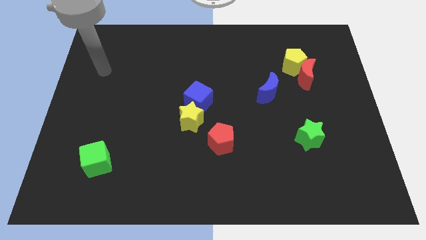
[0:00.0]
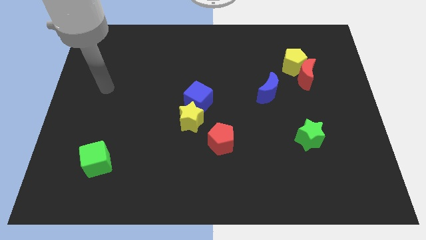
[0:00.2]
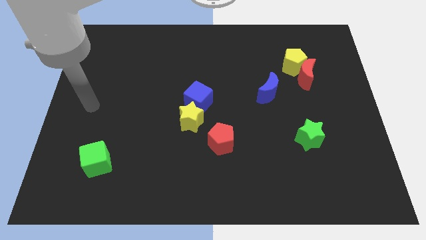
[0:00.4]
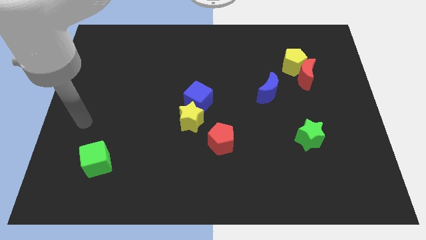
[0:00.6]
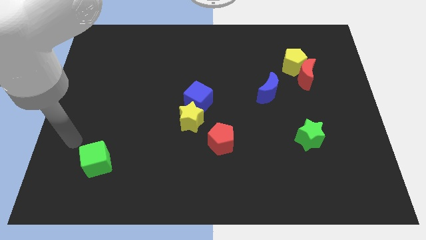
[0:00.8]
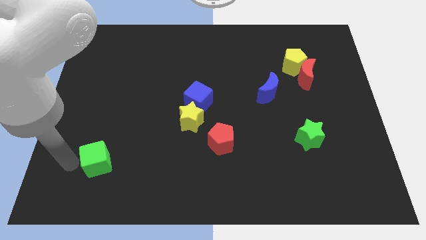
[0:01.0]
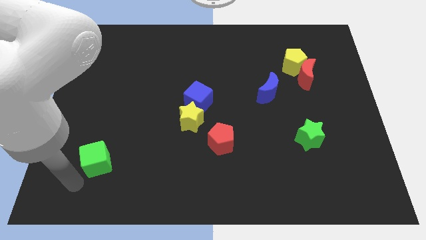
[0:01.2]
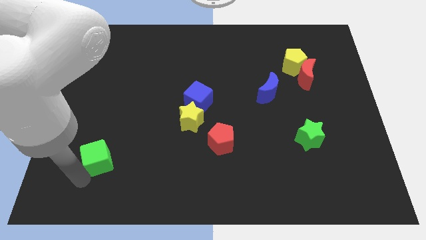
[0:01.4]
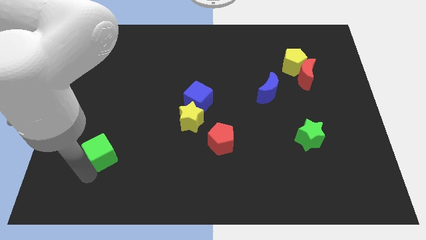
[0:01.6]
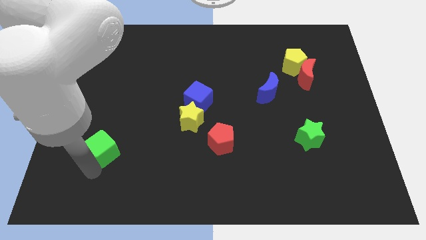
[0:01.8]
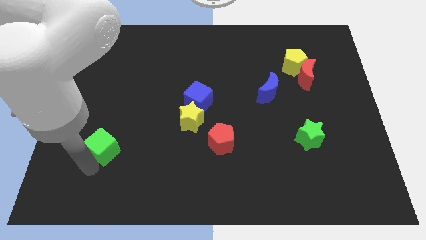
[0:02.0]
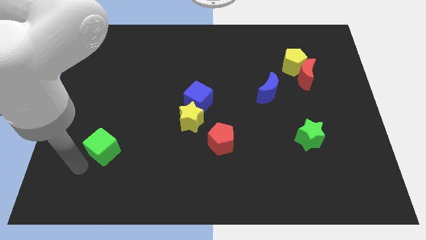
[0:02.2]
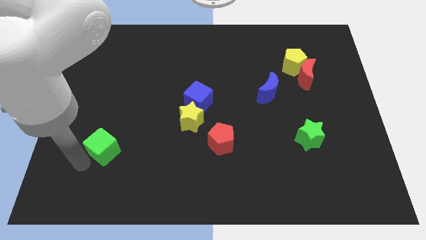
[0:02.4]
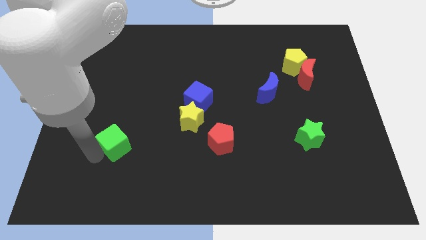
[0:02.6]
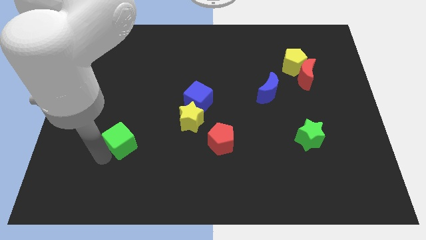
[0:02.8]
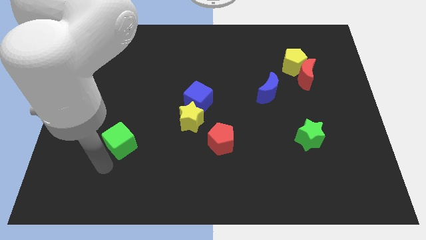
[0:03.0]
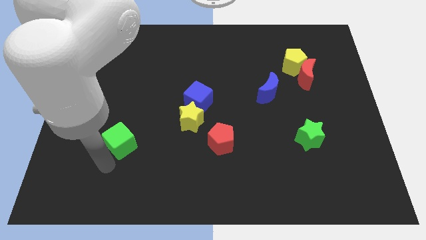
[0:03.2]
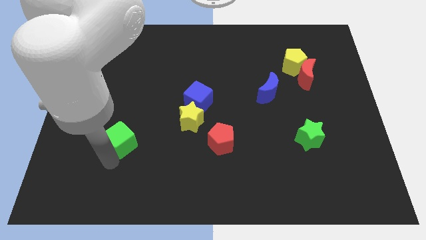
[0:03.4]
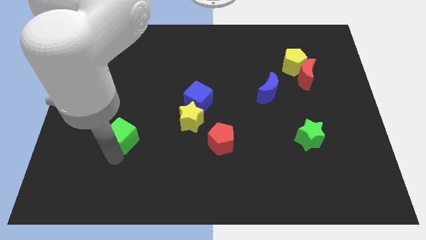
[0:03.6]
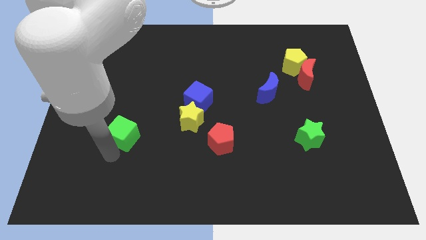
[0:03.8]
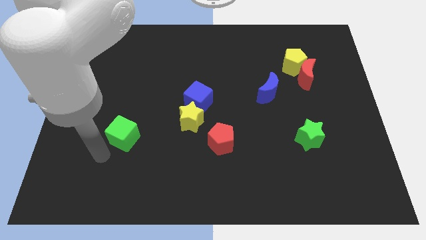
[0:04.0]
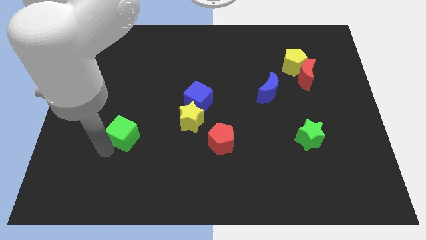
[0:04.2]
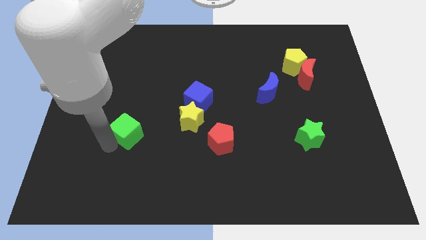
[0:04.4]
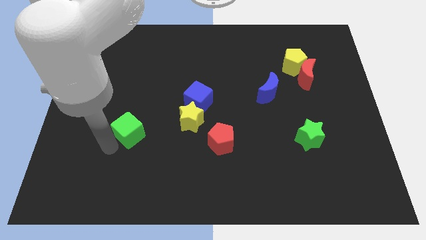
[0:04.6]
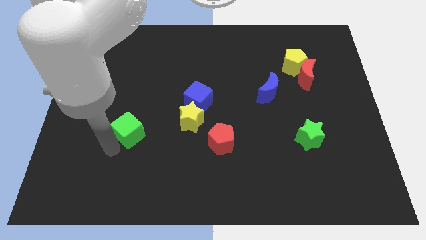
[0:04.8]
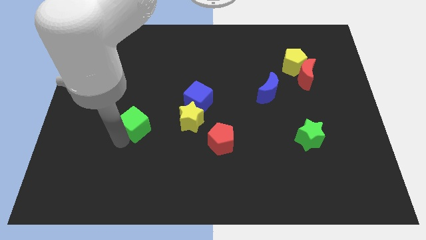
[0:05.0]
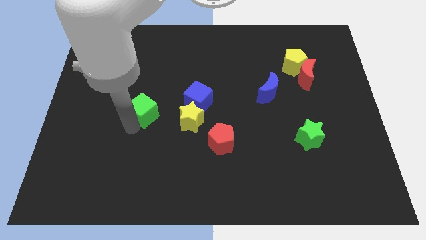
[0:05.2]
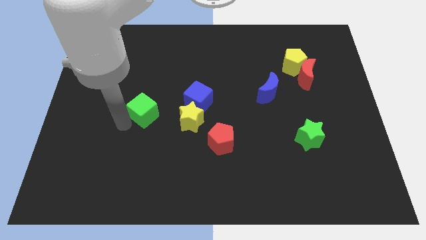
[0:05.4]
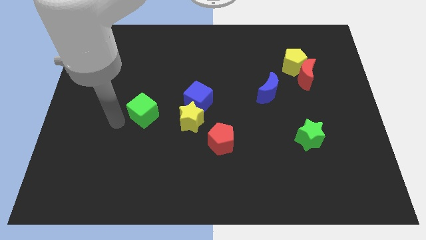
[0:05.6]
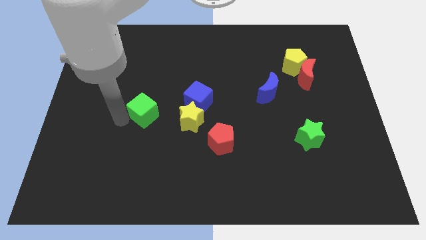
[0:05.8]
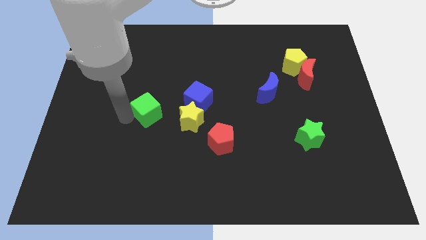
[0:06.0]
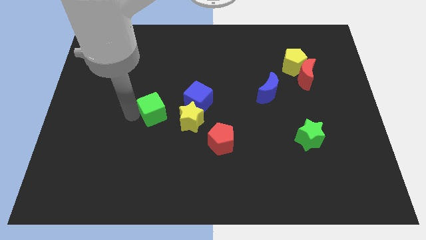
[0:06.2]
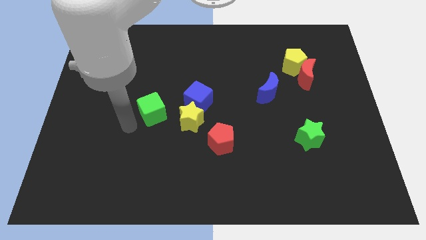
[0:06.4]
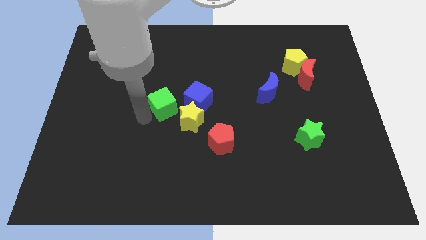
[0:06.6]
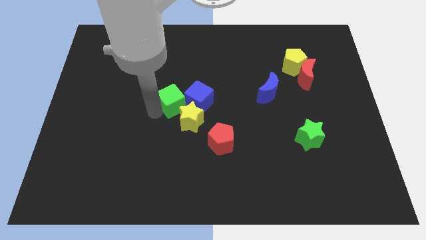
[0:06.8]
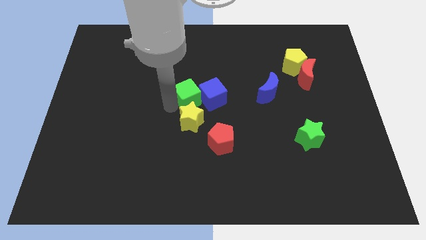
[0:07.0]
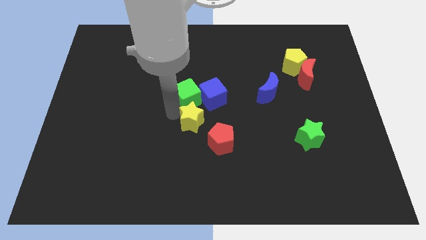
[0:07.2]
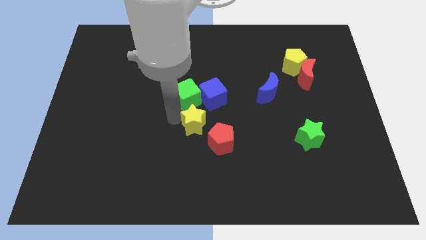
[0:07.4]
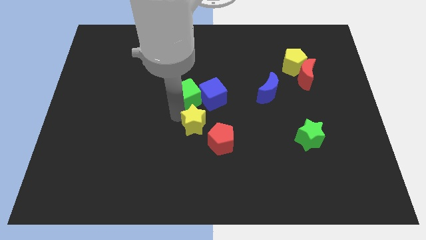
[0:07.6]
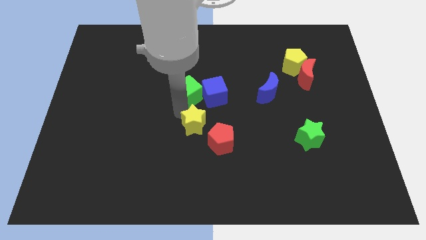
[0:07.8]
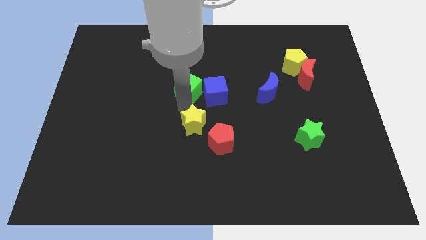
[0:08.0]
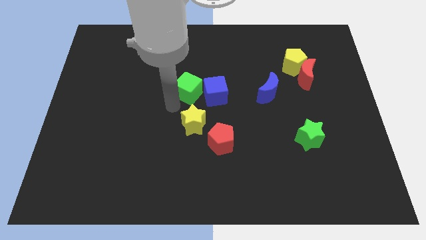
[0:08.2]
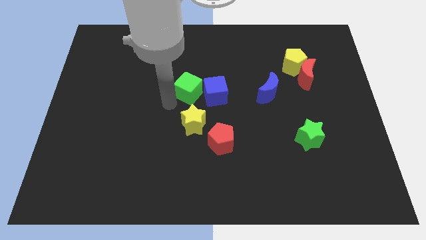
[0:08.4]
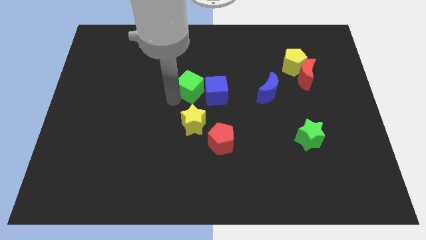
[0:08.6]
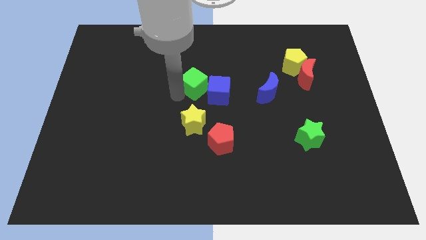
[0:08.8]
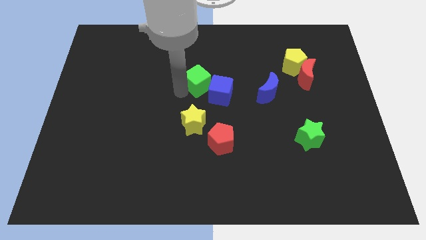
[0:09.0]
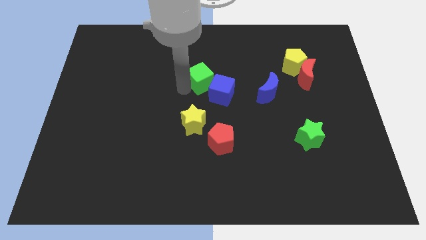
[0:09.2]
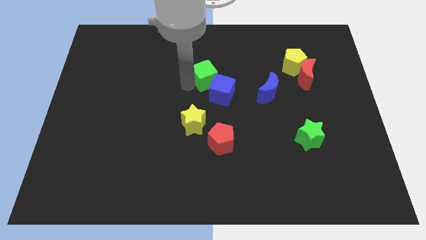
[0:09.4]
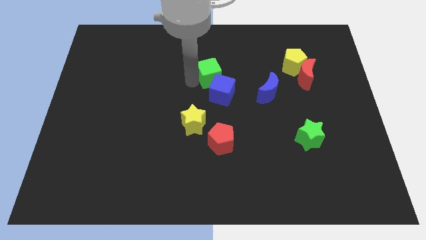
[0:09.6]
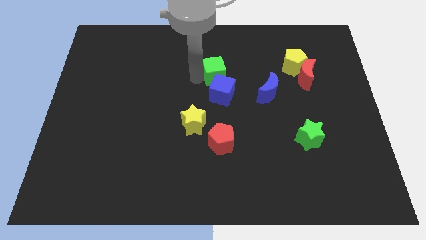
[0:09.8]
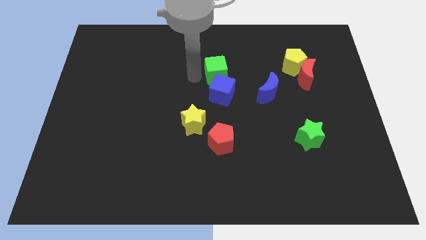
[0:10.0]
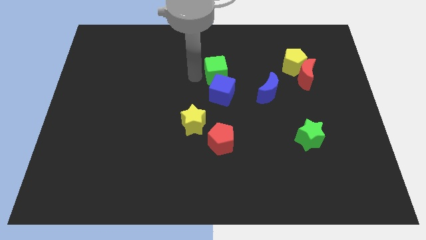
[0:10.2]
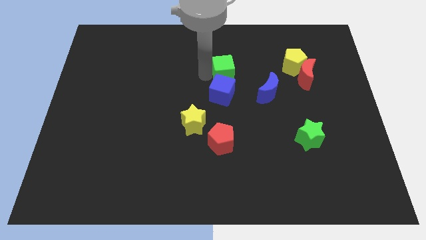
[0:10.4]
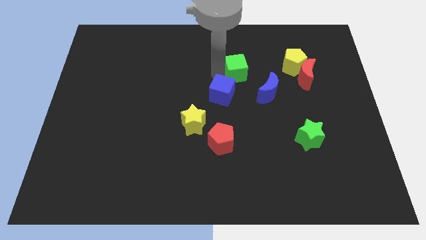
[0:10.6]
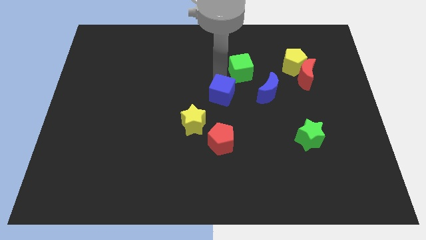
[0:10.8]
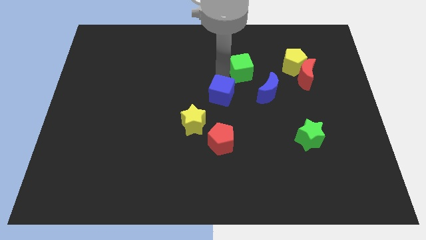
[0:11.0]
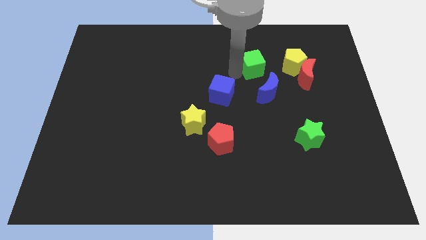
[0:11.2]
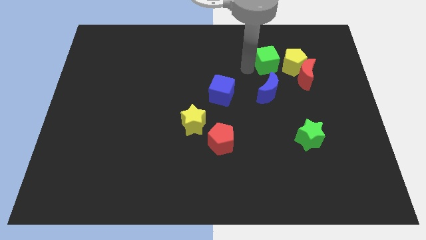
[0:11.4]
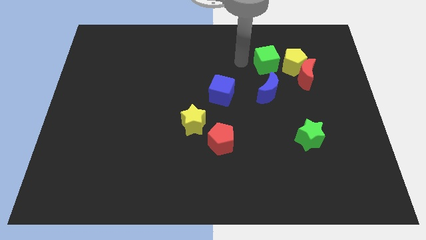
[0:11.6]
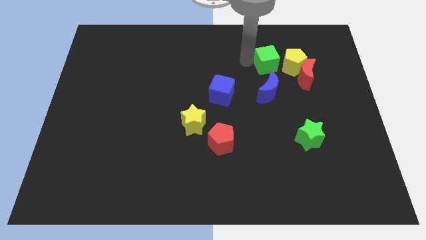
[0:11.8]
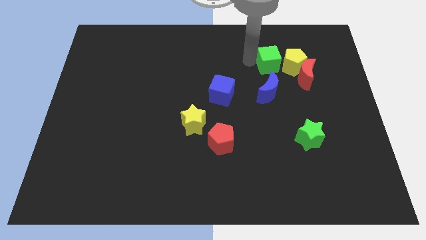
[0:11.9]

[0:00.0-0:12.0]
slide the green cube next to the yellow pentagon

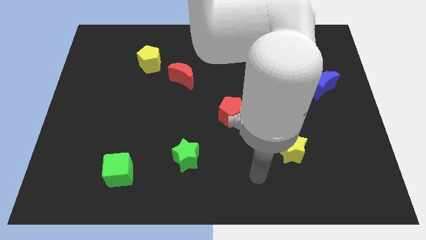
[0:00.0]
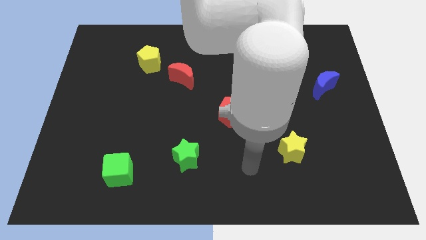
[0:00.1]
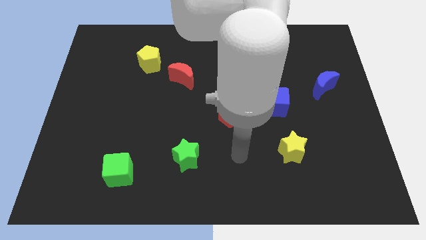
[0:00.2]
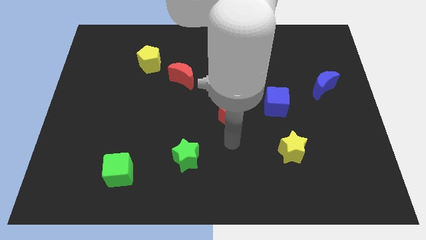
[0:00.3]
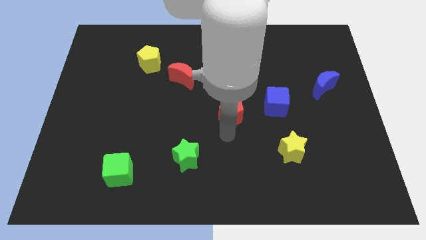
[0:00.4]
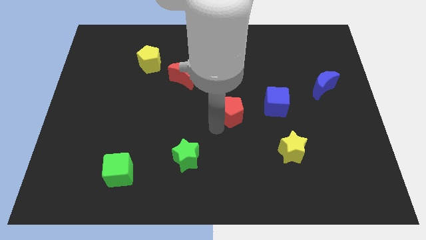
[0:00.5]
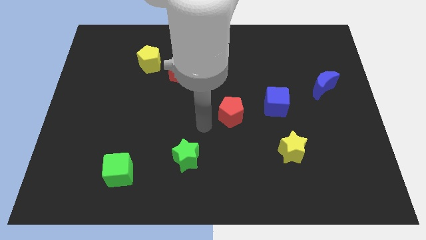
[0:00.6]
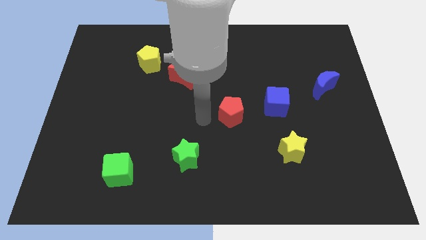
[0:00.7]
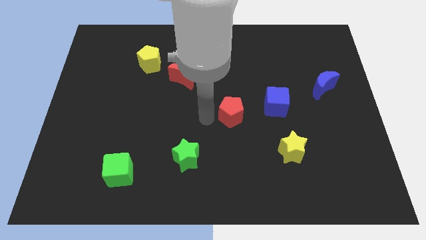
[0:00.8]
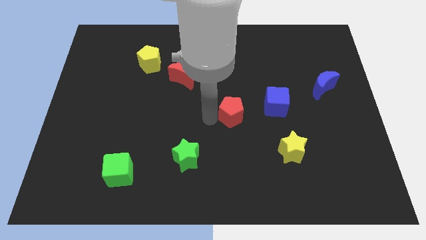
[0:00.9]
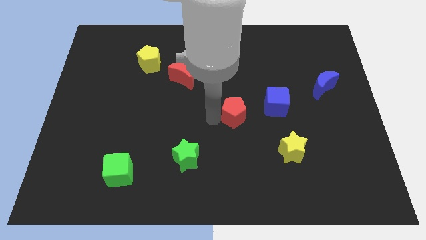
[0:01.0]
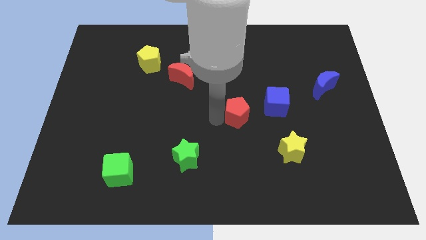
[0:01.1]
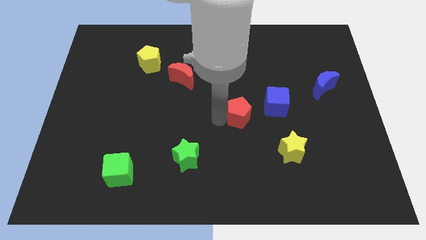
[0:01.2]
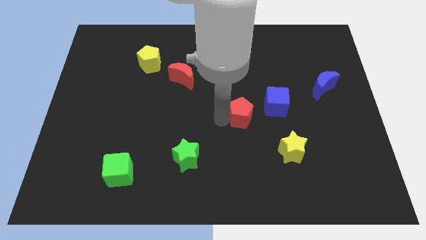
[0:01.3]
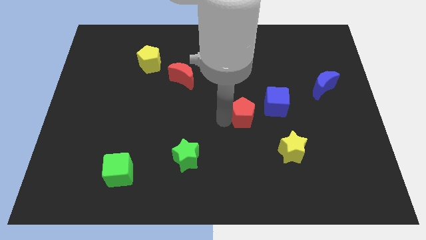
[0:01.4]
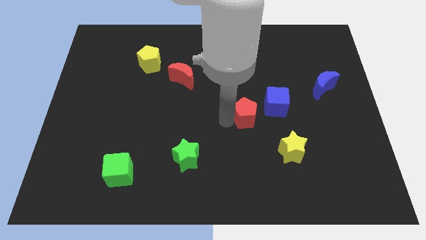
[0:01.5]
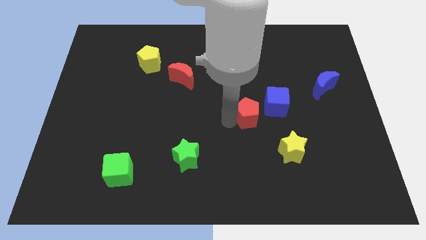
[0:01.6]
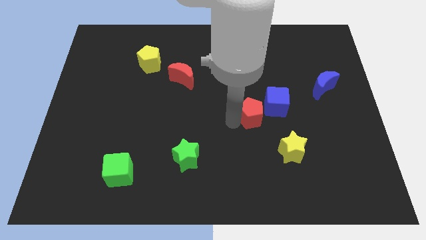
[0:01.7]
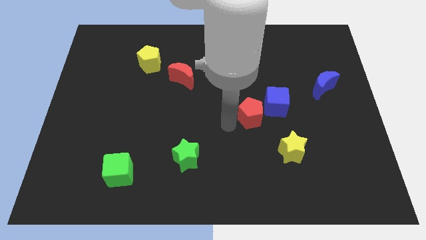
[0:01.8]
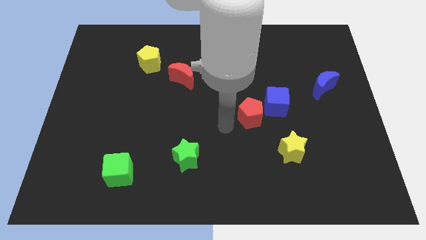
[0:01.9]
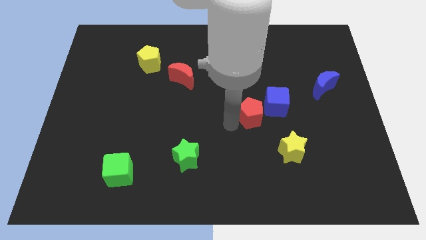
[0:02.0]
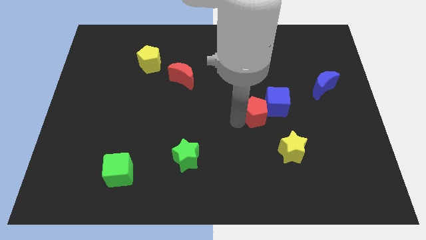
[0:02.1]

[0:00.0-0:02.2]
push the red pentagon to the blue cube
